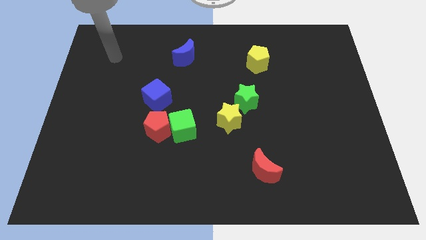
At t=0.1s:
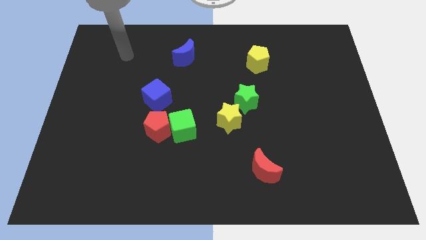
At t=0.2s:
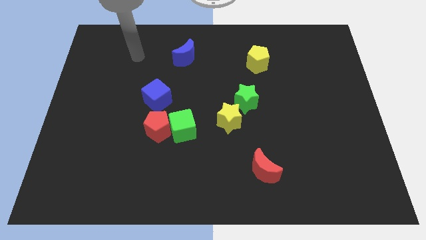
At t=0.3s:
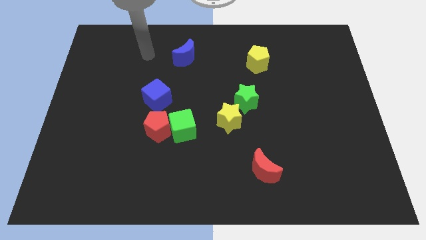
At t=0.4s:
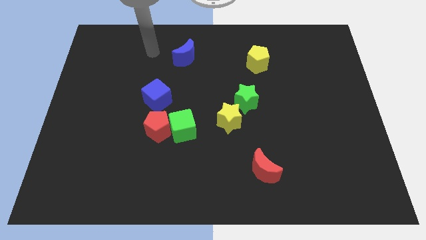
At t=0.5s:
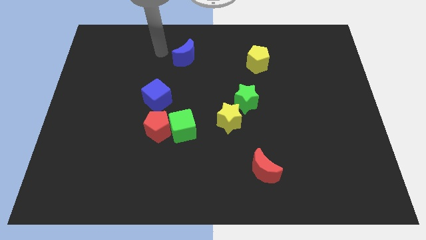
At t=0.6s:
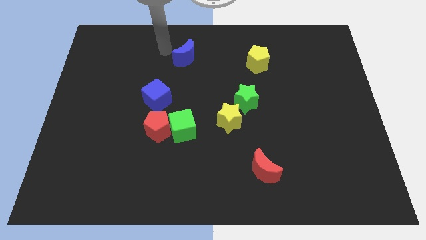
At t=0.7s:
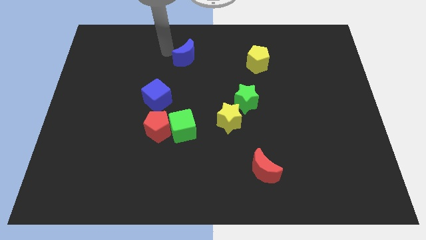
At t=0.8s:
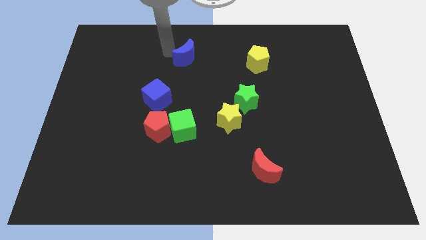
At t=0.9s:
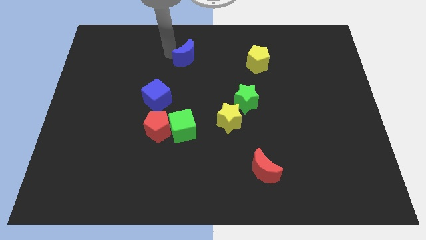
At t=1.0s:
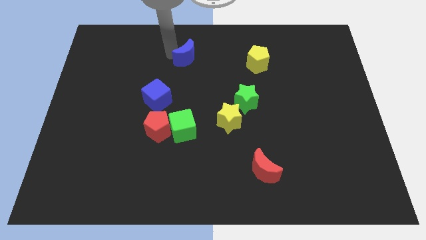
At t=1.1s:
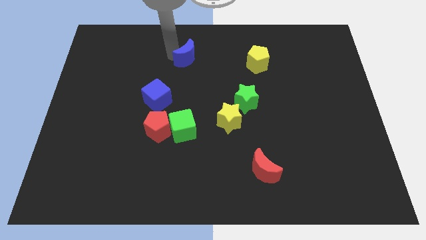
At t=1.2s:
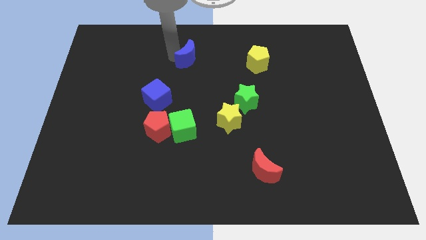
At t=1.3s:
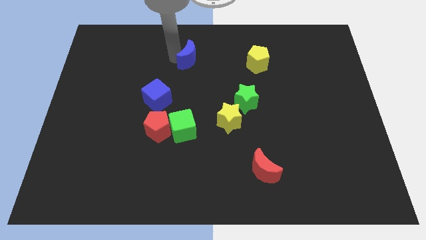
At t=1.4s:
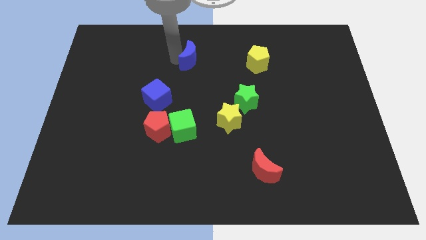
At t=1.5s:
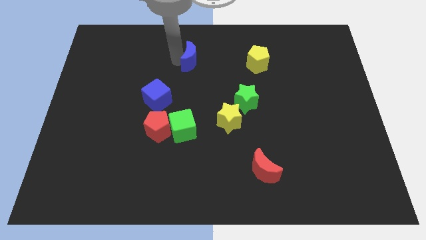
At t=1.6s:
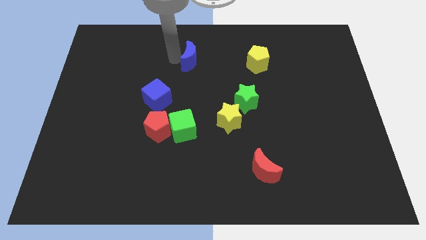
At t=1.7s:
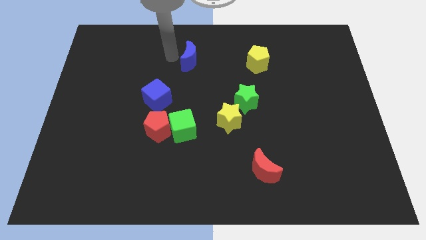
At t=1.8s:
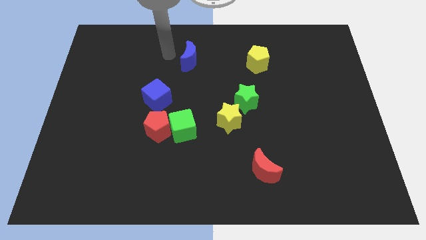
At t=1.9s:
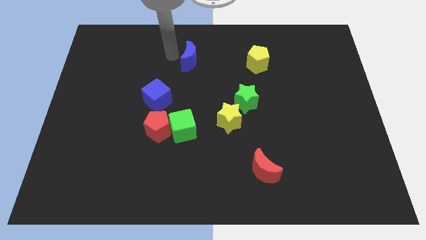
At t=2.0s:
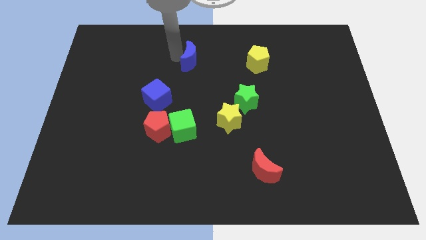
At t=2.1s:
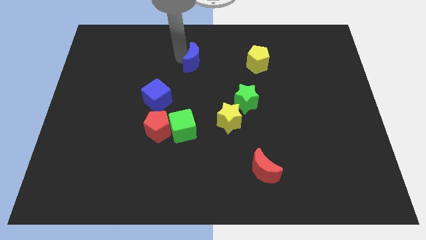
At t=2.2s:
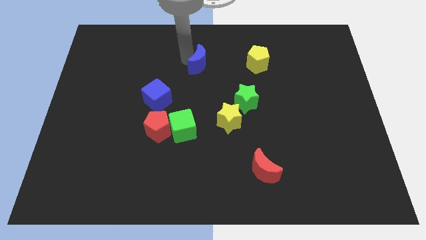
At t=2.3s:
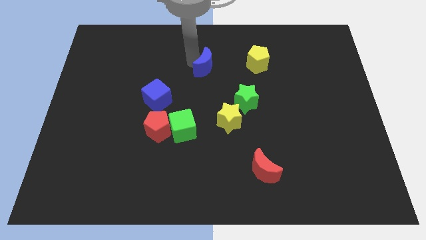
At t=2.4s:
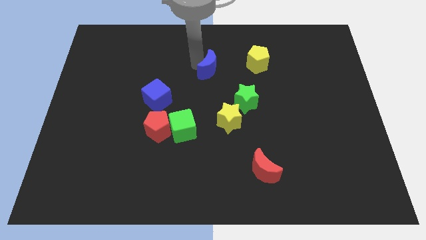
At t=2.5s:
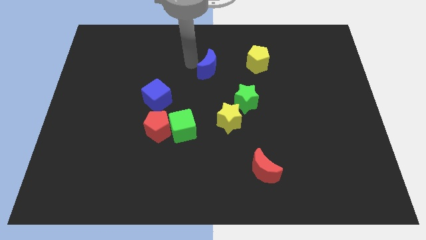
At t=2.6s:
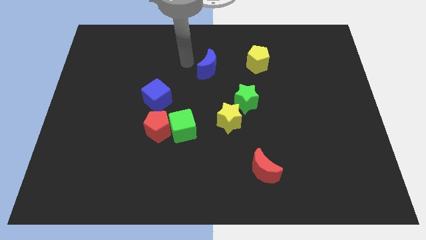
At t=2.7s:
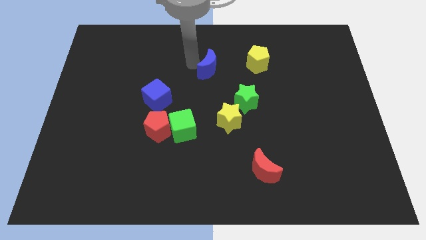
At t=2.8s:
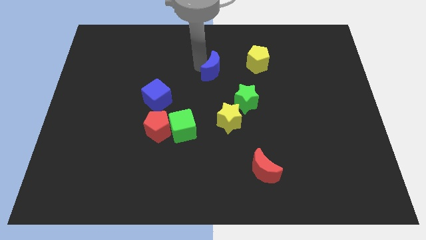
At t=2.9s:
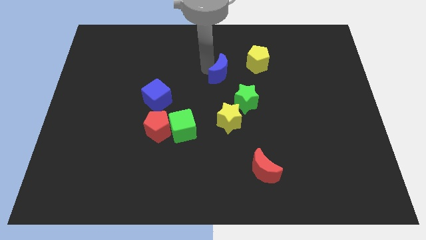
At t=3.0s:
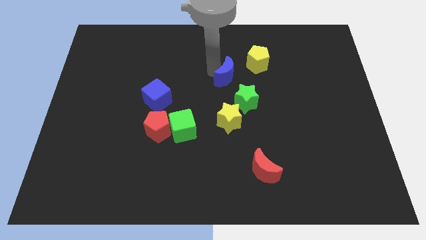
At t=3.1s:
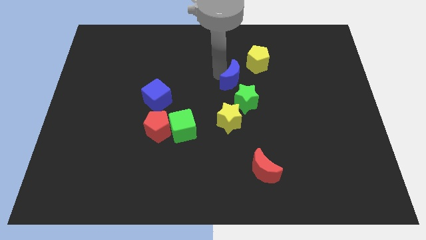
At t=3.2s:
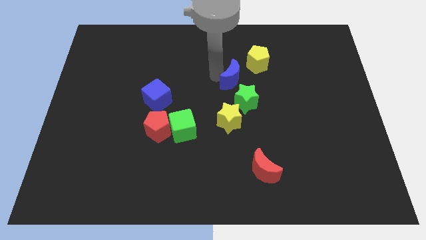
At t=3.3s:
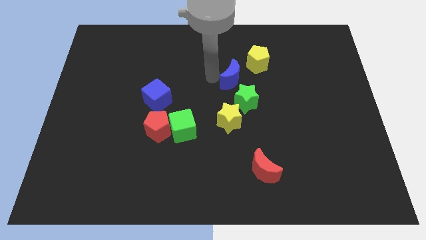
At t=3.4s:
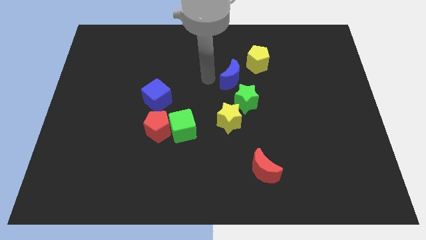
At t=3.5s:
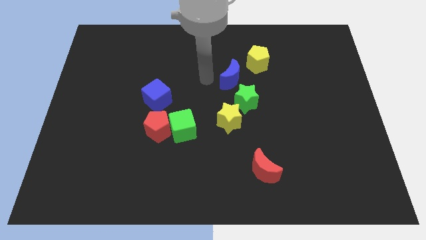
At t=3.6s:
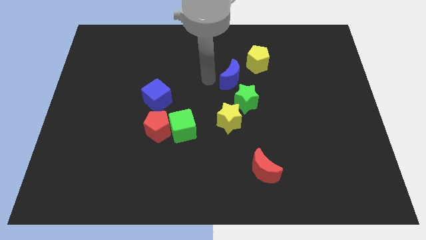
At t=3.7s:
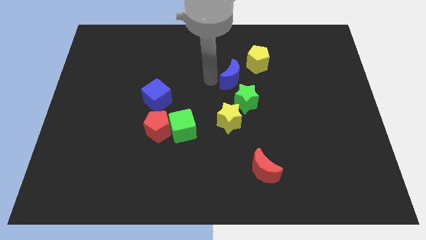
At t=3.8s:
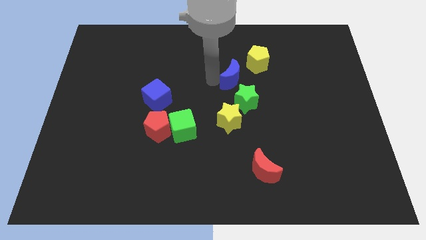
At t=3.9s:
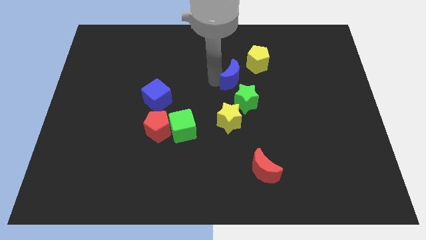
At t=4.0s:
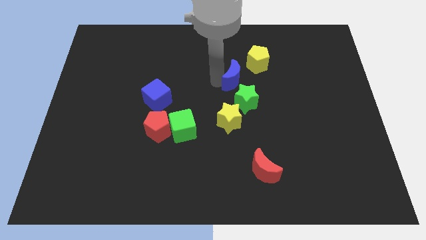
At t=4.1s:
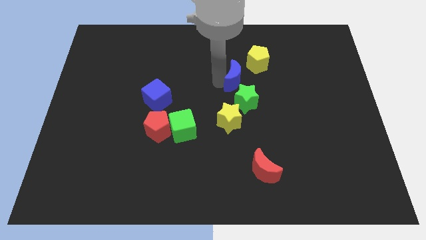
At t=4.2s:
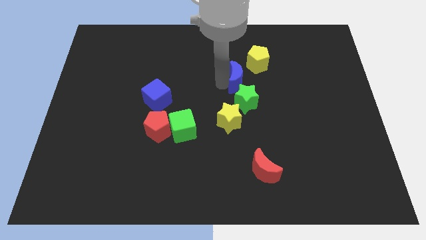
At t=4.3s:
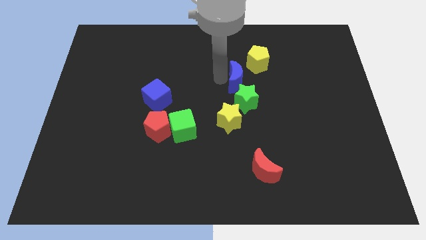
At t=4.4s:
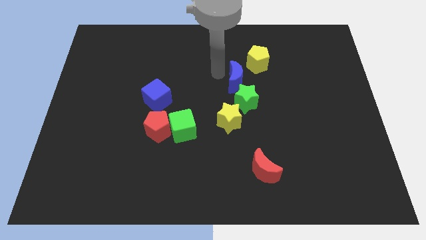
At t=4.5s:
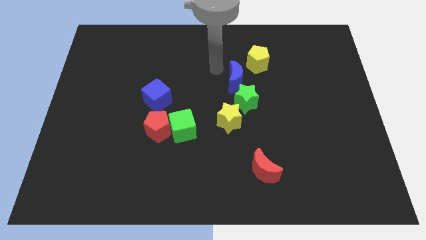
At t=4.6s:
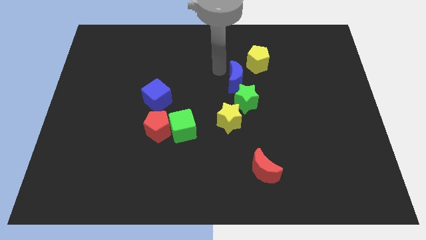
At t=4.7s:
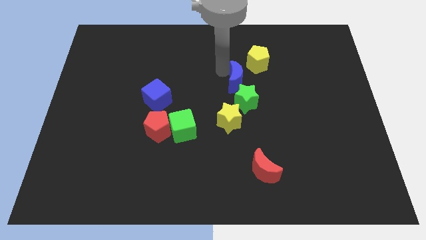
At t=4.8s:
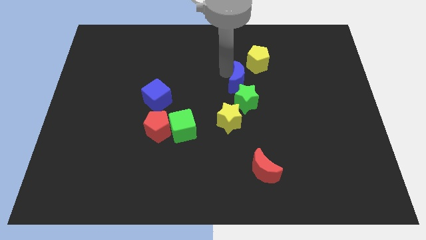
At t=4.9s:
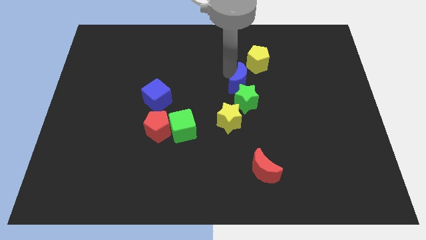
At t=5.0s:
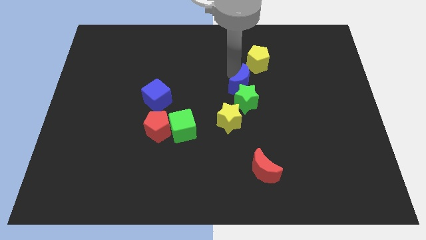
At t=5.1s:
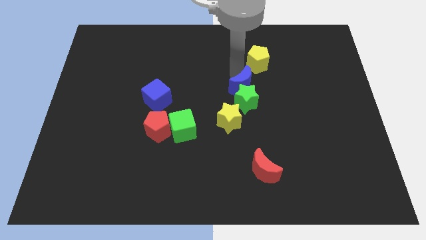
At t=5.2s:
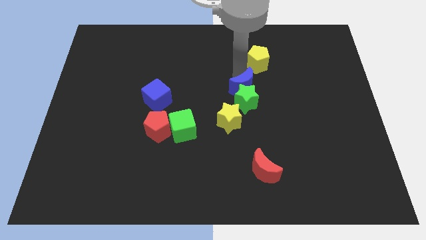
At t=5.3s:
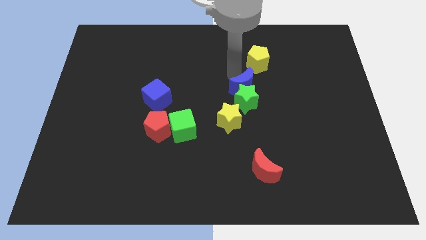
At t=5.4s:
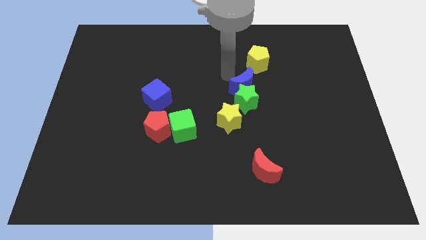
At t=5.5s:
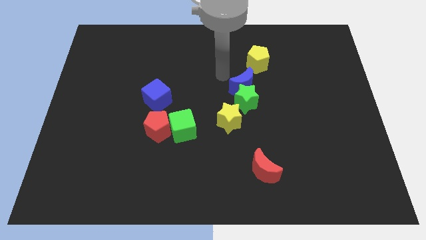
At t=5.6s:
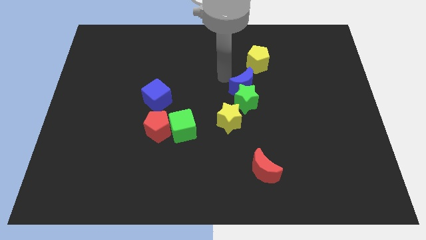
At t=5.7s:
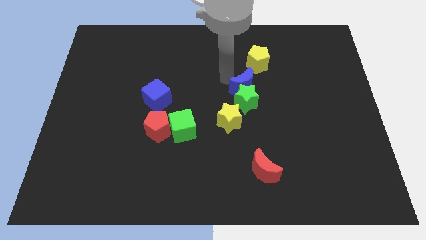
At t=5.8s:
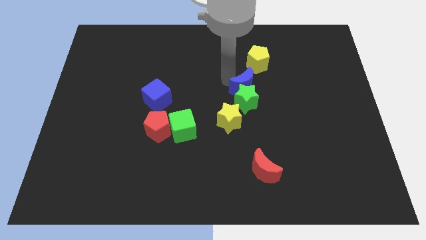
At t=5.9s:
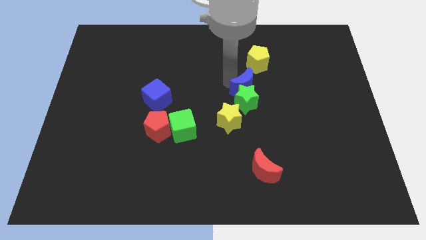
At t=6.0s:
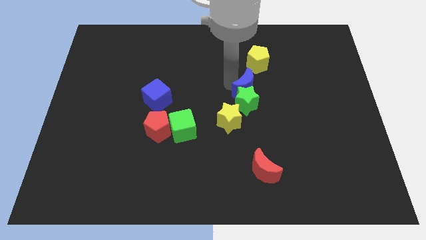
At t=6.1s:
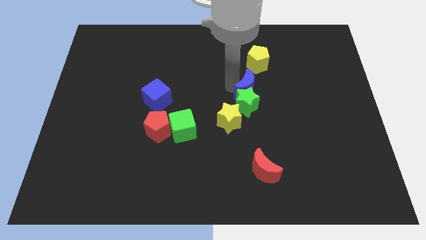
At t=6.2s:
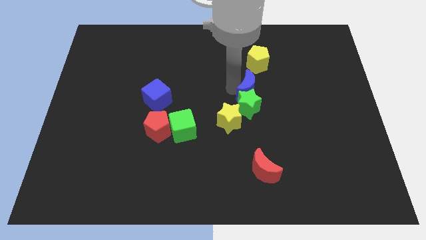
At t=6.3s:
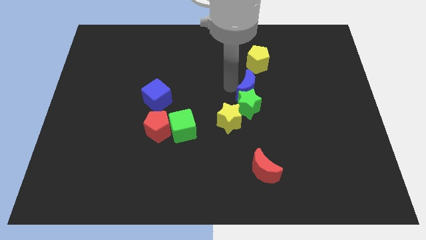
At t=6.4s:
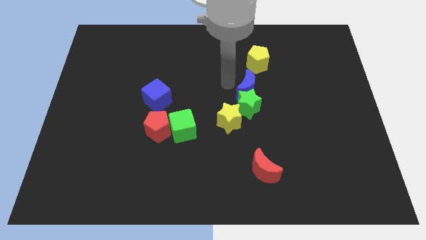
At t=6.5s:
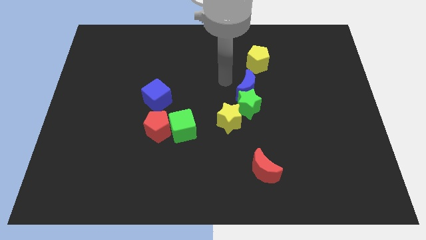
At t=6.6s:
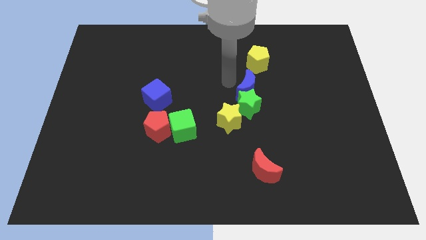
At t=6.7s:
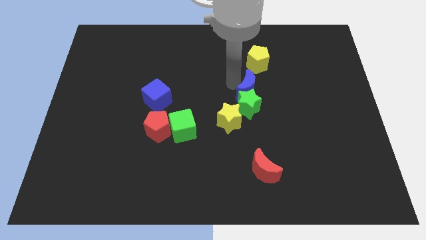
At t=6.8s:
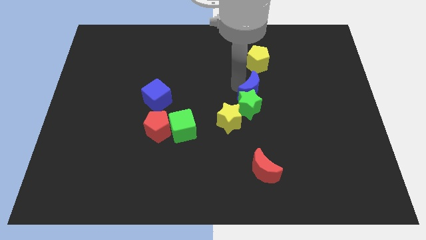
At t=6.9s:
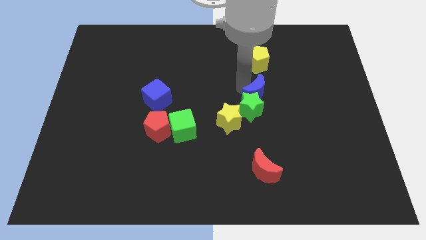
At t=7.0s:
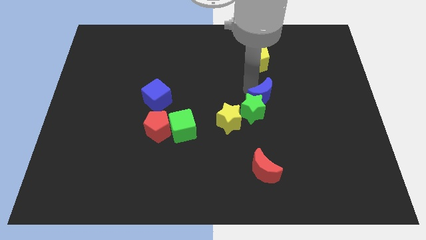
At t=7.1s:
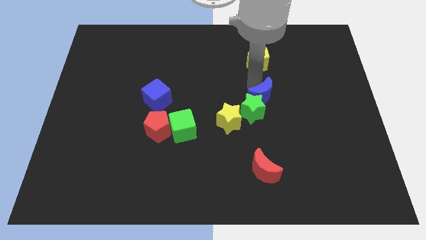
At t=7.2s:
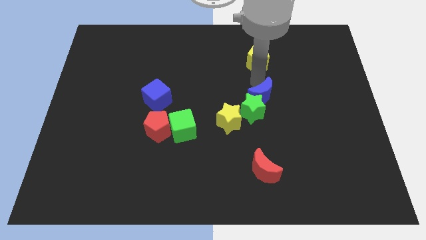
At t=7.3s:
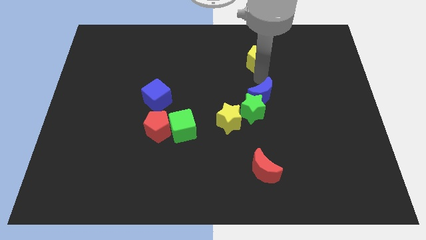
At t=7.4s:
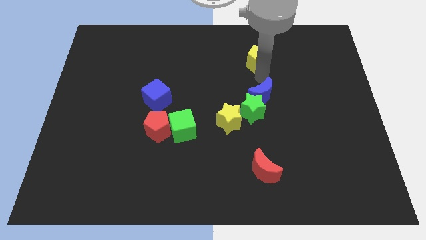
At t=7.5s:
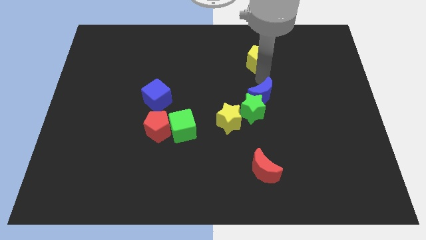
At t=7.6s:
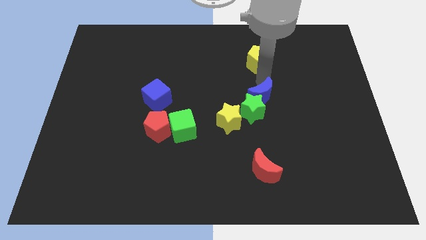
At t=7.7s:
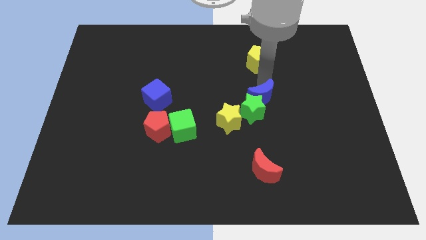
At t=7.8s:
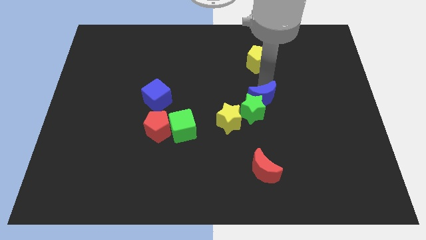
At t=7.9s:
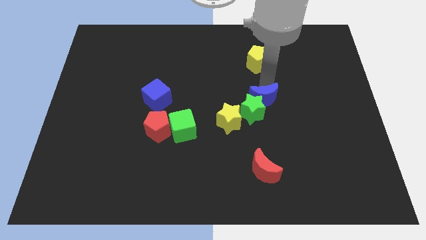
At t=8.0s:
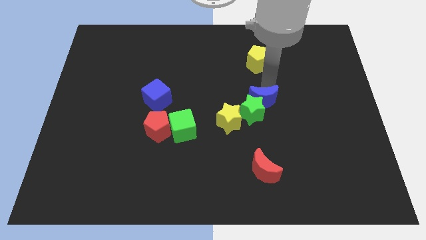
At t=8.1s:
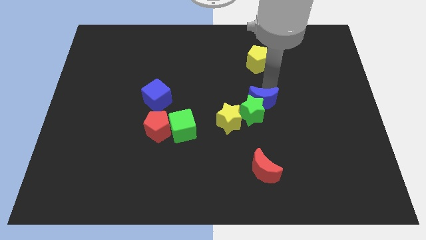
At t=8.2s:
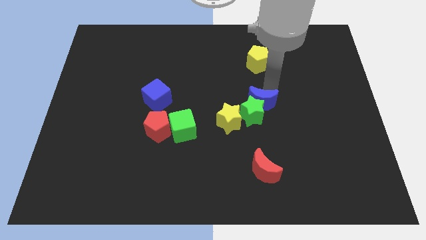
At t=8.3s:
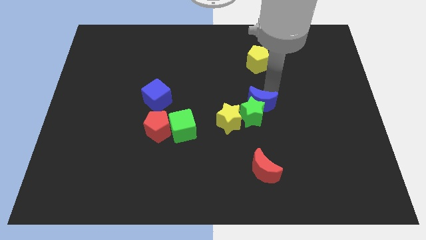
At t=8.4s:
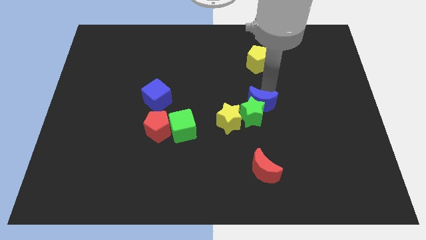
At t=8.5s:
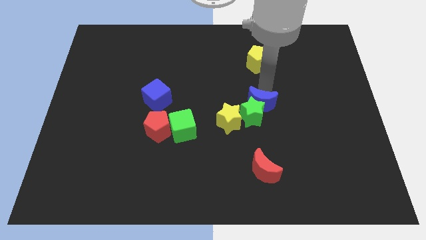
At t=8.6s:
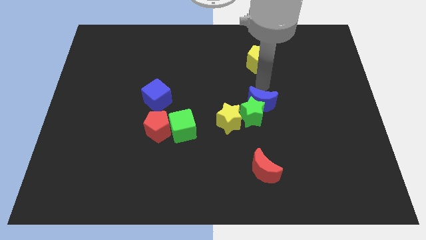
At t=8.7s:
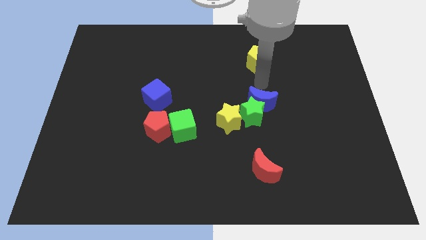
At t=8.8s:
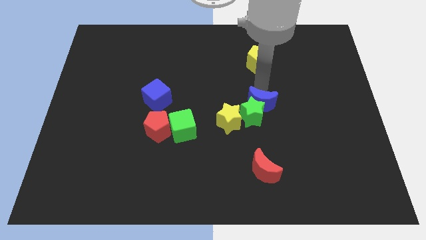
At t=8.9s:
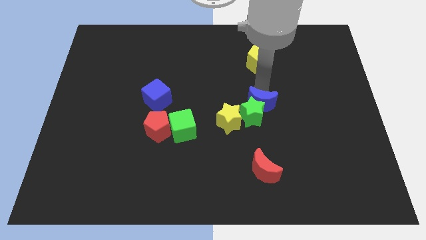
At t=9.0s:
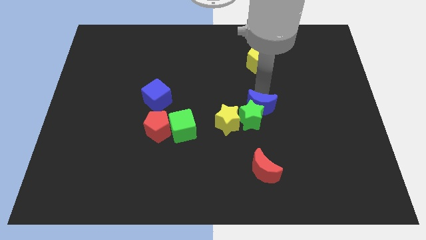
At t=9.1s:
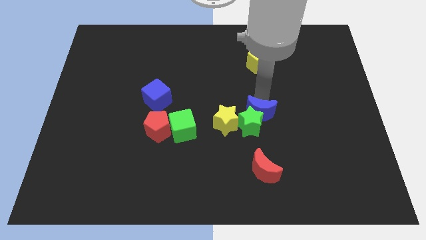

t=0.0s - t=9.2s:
move the blue moon to the top of the red moon
